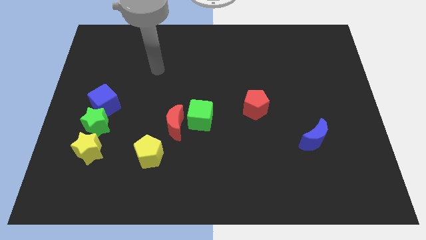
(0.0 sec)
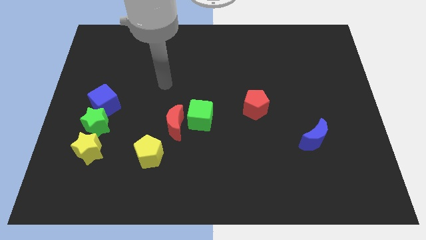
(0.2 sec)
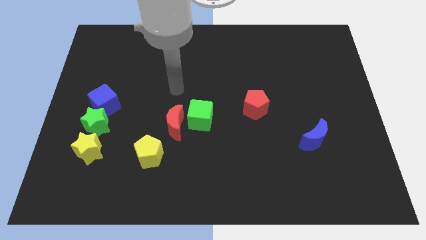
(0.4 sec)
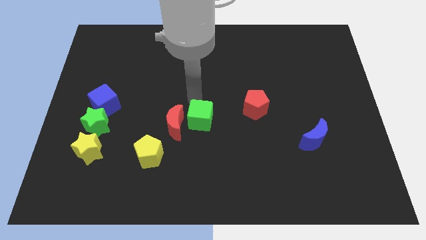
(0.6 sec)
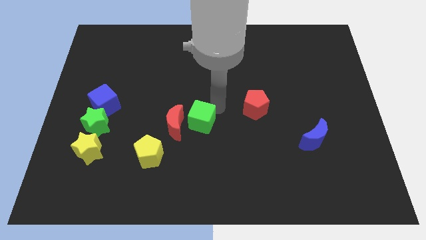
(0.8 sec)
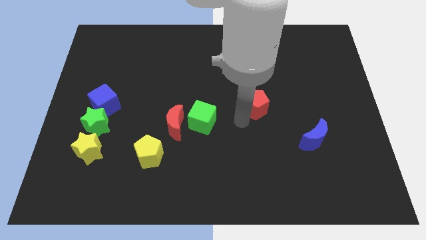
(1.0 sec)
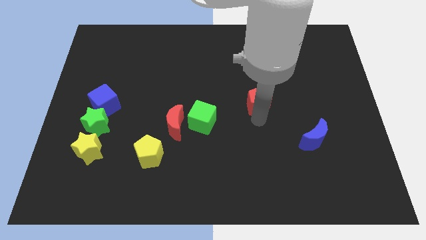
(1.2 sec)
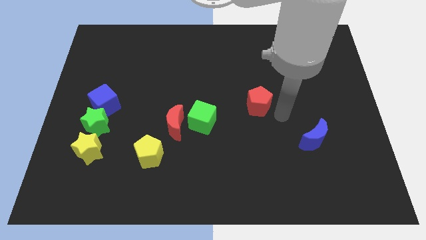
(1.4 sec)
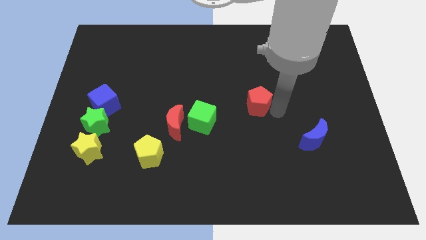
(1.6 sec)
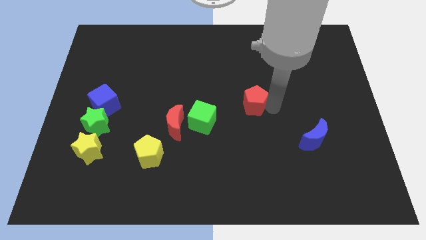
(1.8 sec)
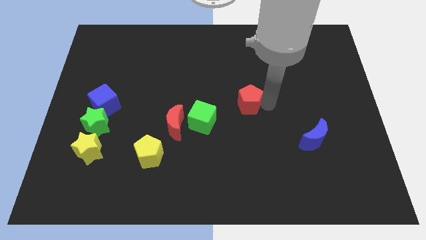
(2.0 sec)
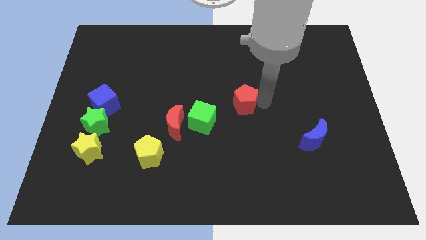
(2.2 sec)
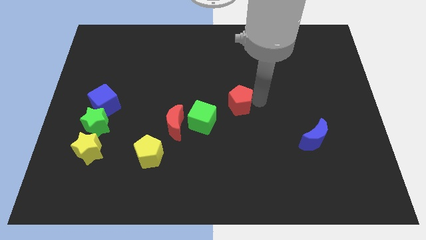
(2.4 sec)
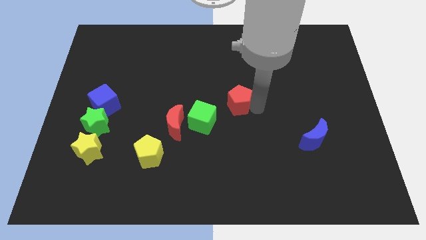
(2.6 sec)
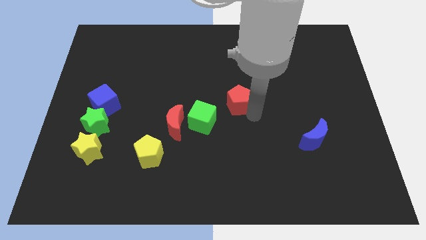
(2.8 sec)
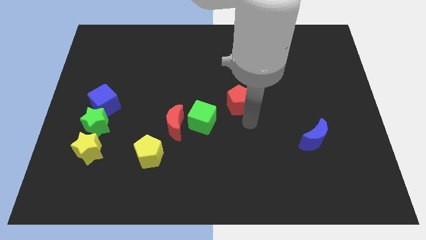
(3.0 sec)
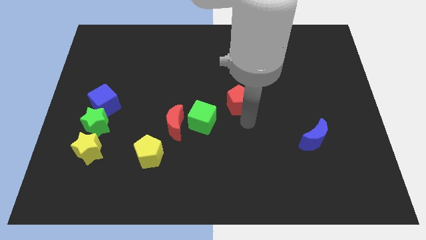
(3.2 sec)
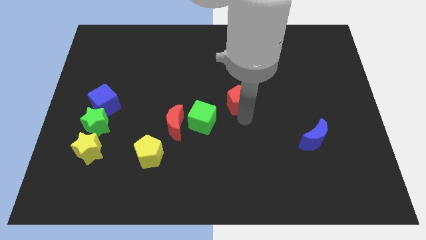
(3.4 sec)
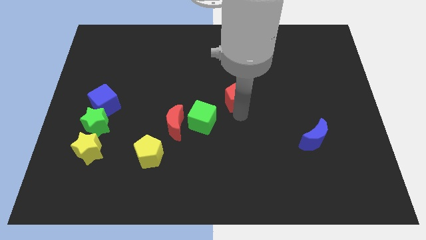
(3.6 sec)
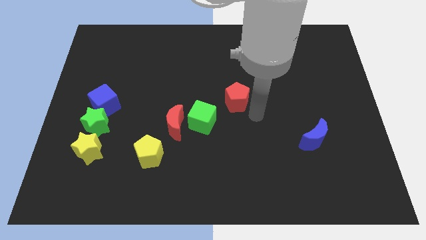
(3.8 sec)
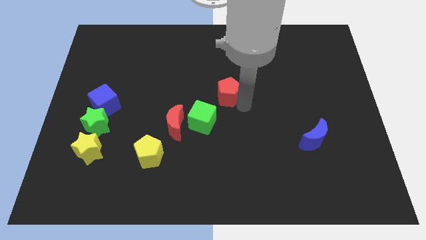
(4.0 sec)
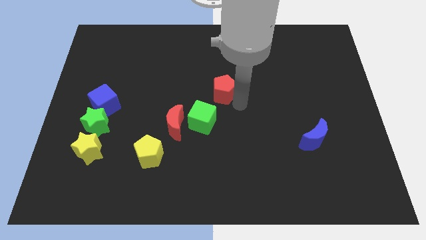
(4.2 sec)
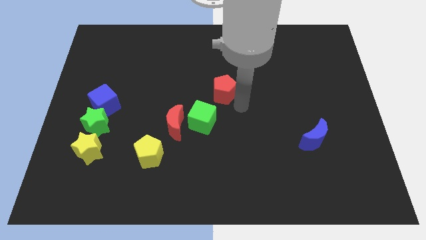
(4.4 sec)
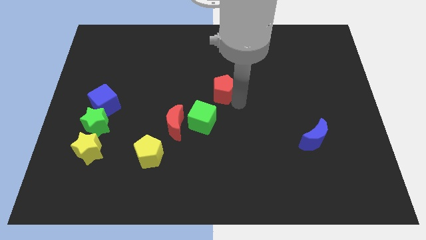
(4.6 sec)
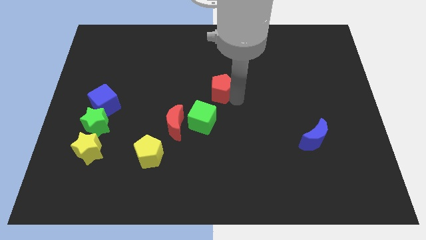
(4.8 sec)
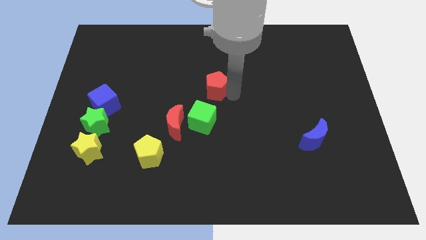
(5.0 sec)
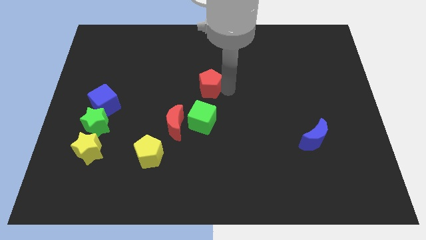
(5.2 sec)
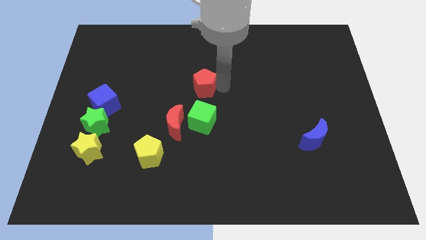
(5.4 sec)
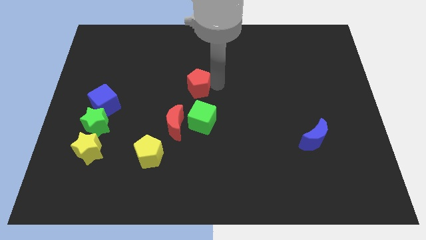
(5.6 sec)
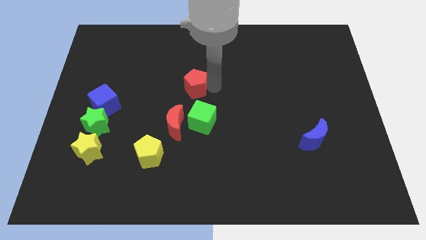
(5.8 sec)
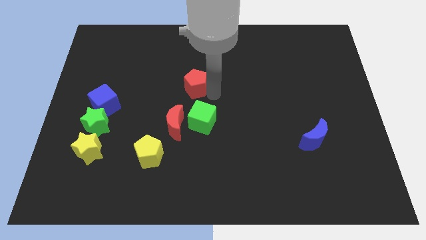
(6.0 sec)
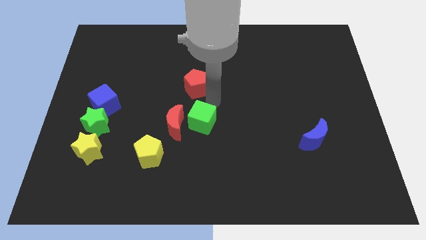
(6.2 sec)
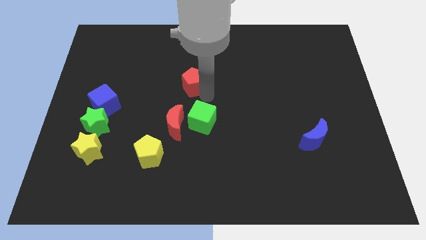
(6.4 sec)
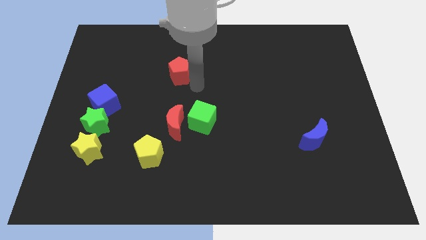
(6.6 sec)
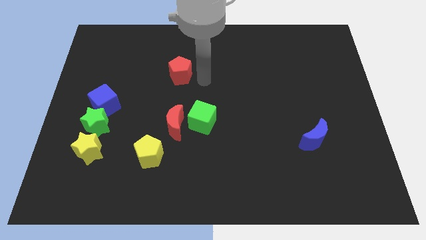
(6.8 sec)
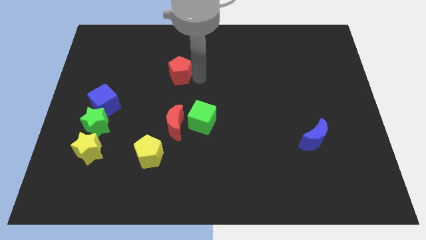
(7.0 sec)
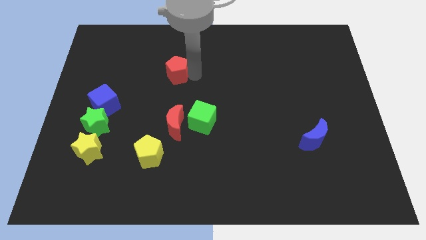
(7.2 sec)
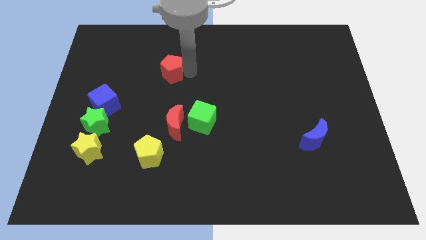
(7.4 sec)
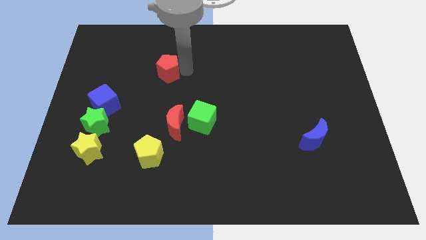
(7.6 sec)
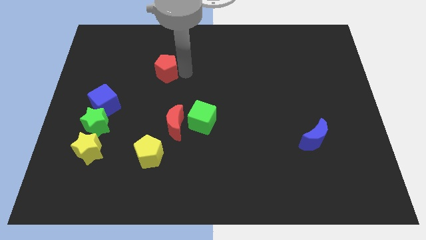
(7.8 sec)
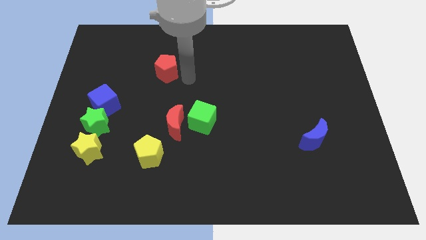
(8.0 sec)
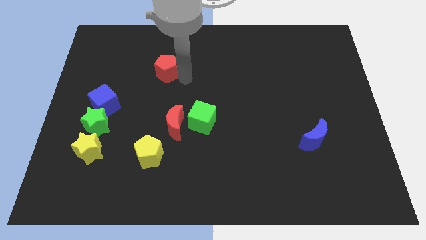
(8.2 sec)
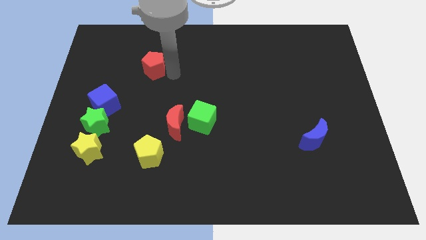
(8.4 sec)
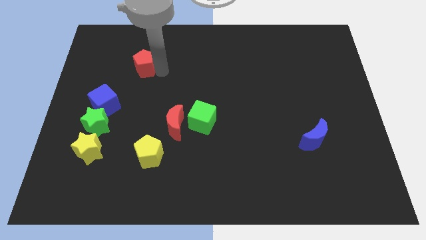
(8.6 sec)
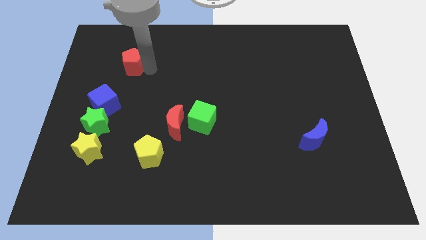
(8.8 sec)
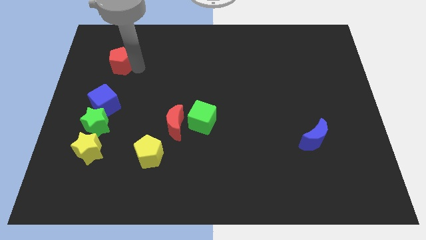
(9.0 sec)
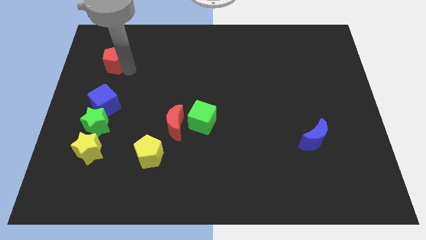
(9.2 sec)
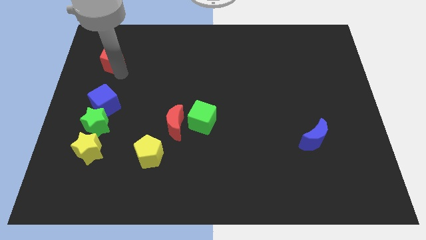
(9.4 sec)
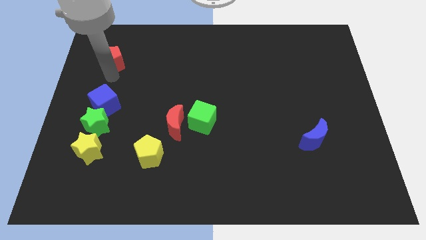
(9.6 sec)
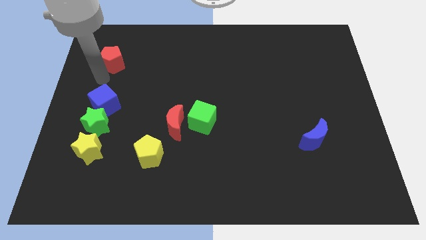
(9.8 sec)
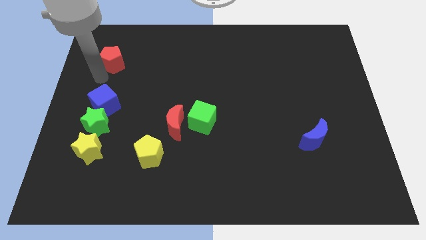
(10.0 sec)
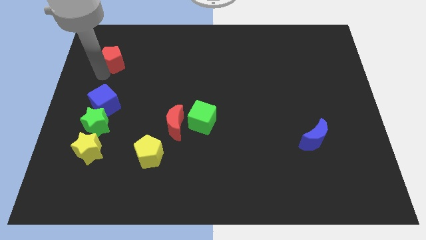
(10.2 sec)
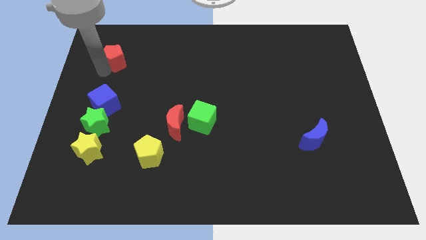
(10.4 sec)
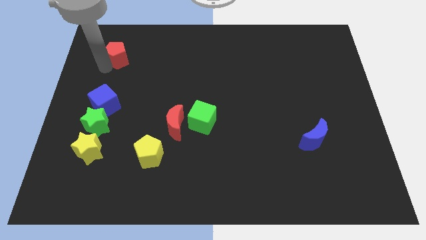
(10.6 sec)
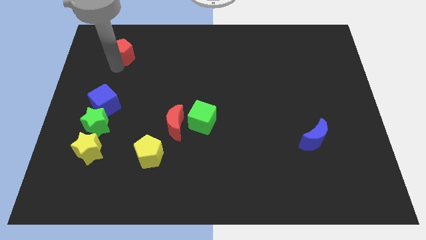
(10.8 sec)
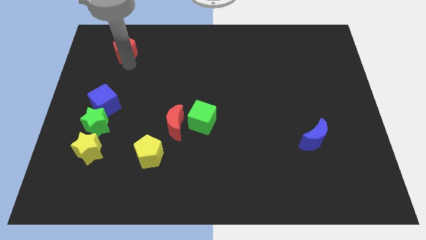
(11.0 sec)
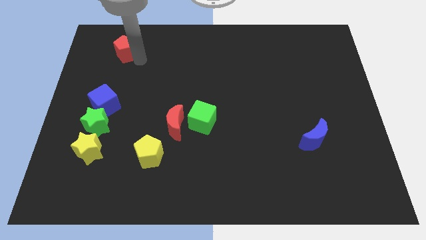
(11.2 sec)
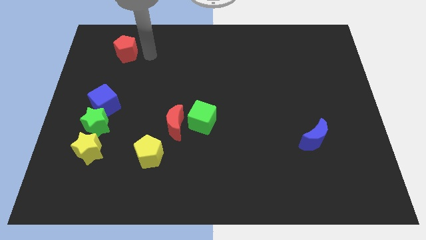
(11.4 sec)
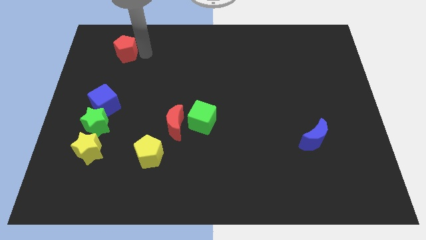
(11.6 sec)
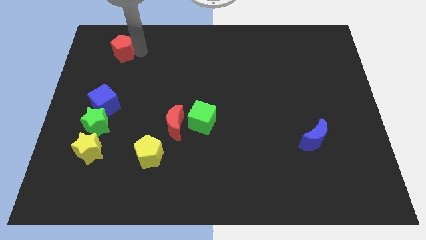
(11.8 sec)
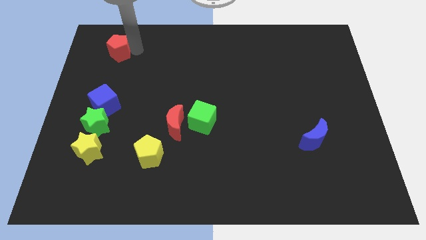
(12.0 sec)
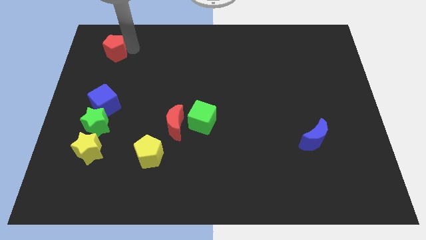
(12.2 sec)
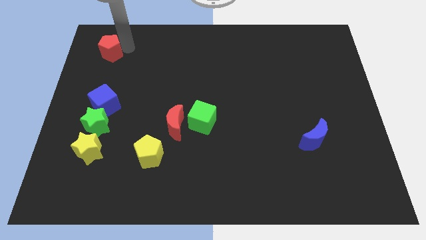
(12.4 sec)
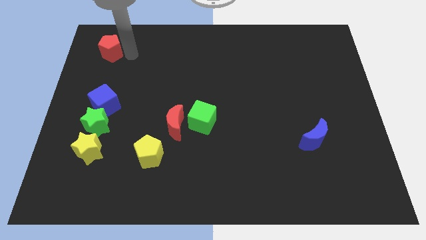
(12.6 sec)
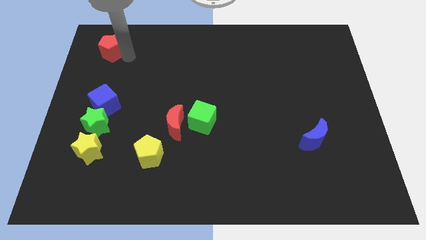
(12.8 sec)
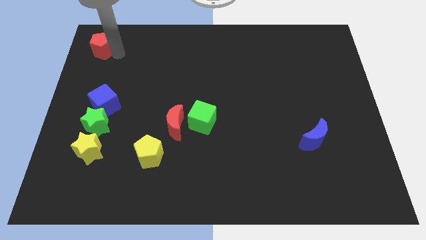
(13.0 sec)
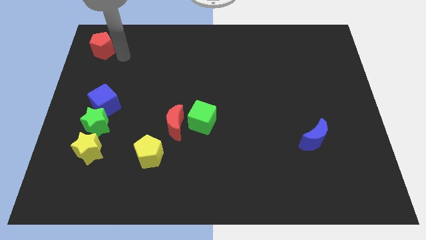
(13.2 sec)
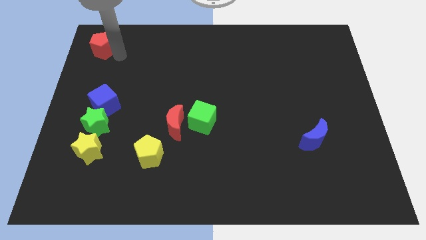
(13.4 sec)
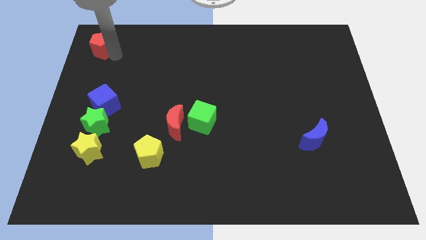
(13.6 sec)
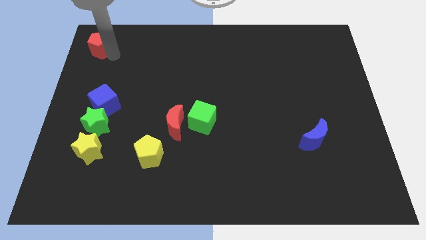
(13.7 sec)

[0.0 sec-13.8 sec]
slide the red pentagon to the top left corner

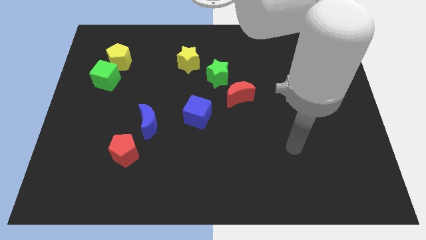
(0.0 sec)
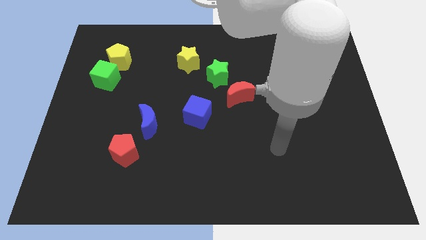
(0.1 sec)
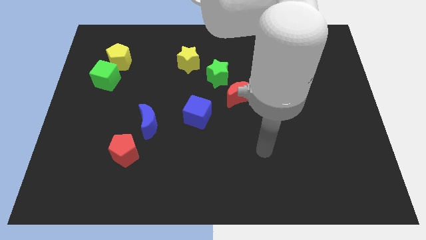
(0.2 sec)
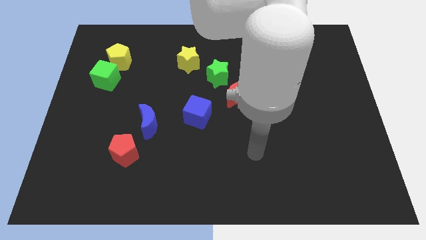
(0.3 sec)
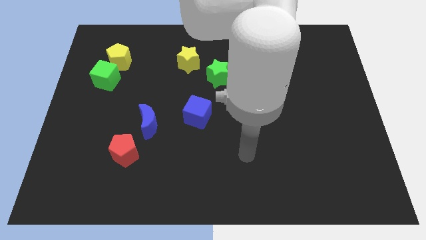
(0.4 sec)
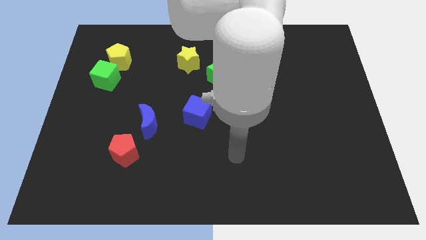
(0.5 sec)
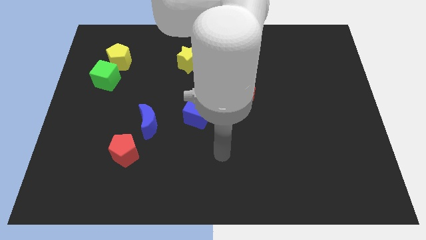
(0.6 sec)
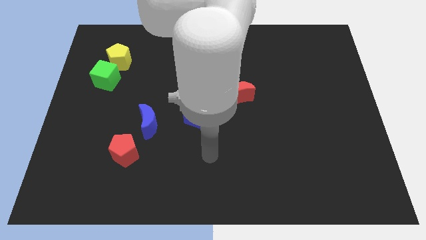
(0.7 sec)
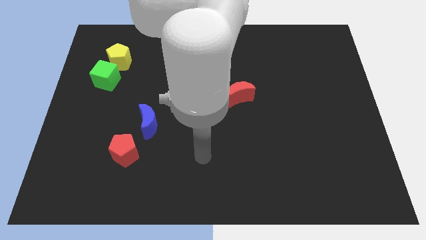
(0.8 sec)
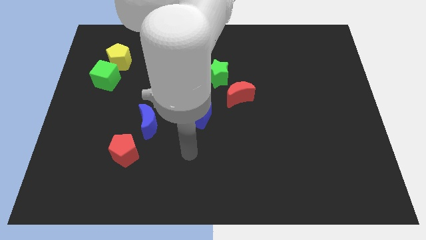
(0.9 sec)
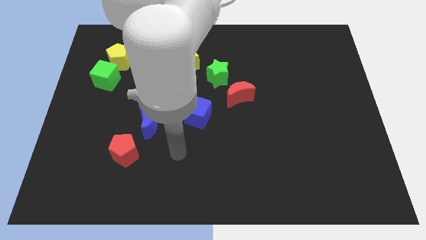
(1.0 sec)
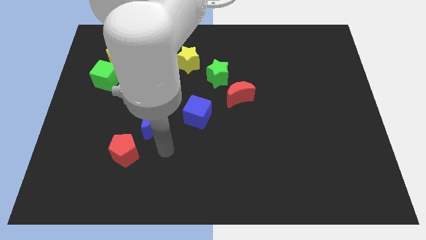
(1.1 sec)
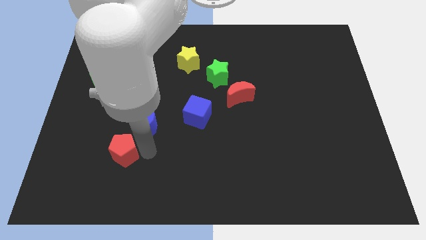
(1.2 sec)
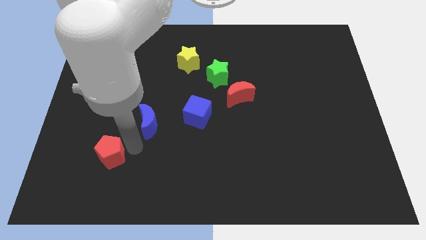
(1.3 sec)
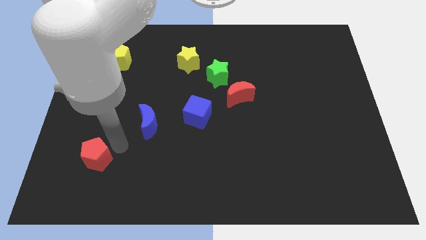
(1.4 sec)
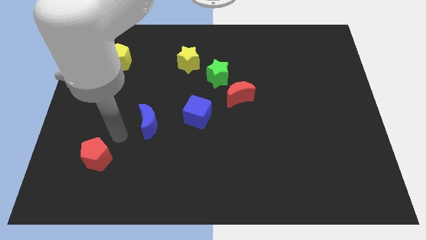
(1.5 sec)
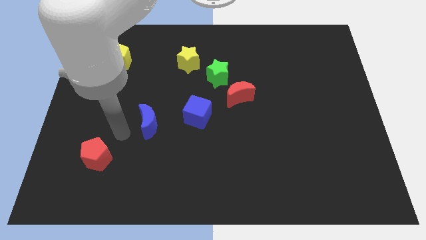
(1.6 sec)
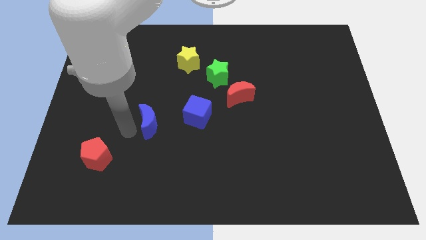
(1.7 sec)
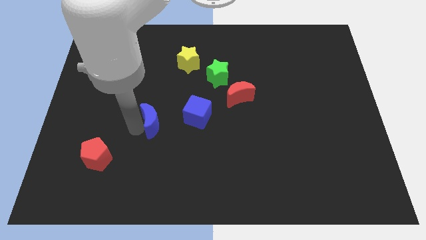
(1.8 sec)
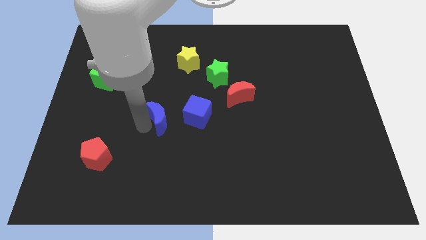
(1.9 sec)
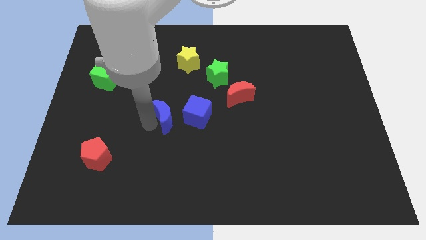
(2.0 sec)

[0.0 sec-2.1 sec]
slide the blue moon to the middle
